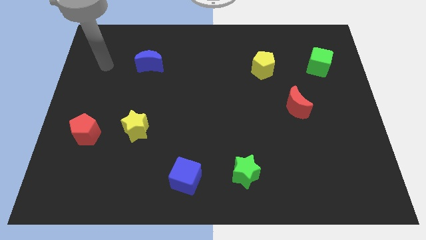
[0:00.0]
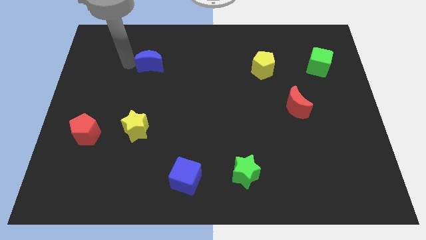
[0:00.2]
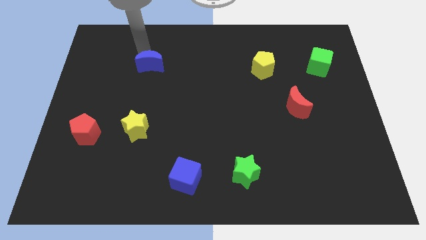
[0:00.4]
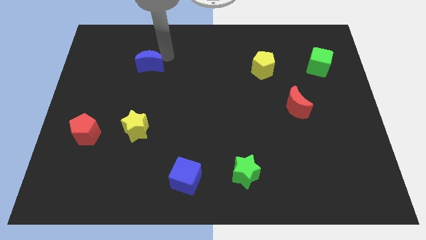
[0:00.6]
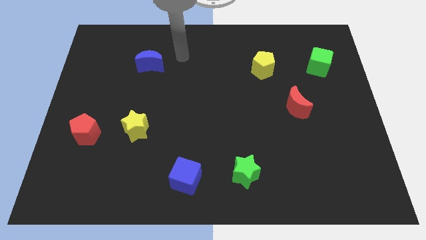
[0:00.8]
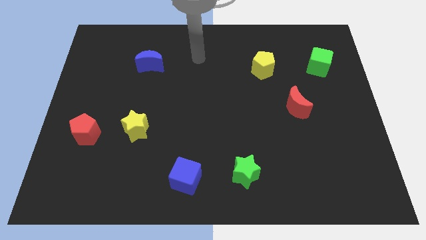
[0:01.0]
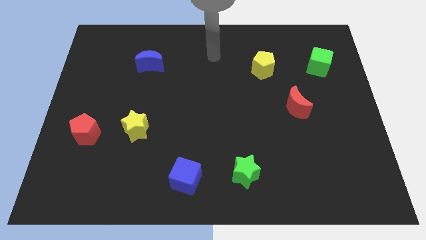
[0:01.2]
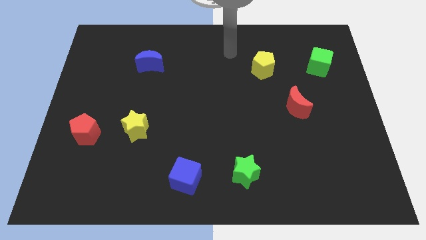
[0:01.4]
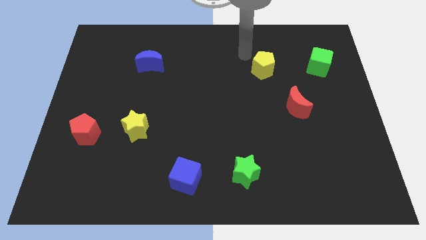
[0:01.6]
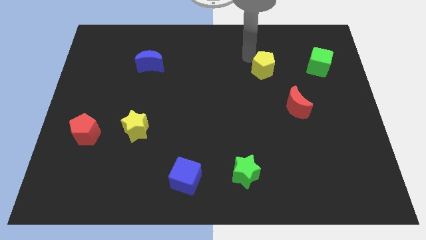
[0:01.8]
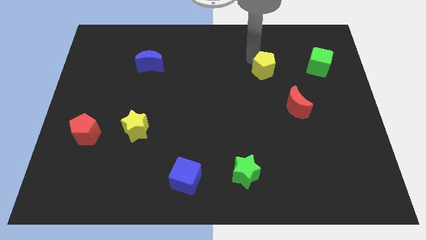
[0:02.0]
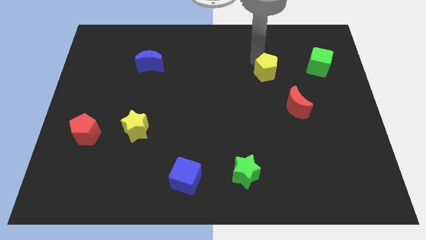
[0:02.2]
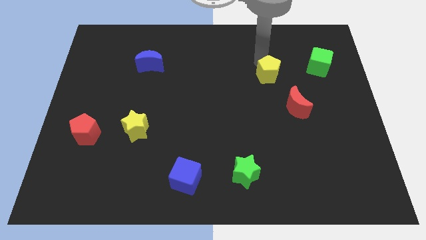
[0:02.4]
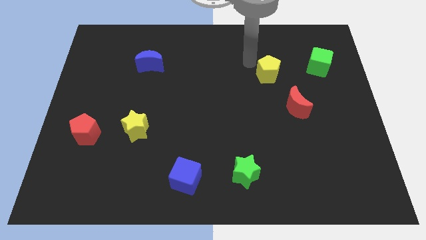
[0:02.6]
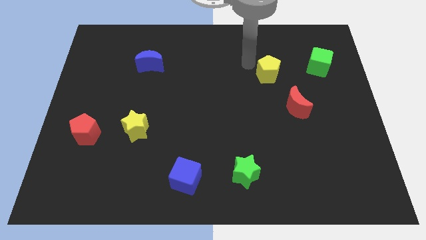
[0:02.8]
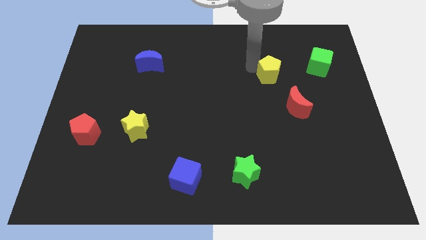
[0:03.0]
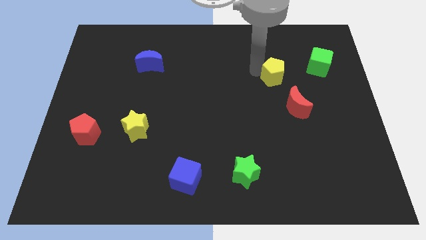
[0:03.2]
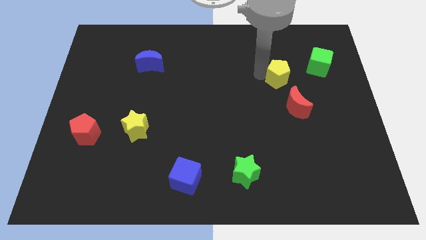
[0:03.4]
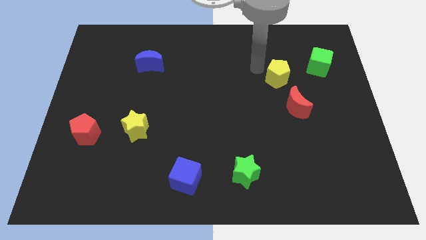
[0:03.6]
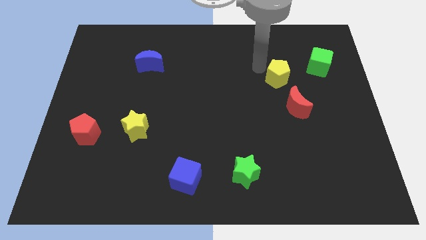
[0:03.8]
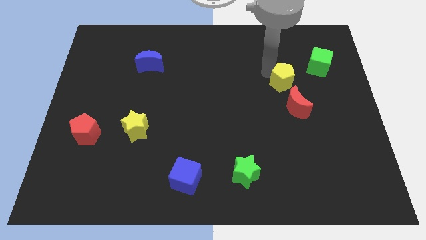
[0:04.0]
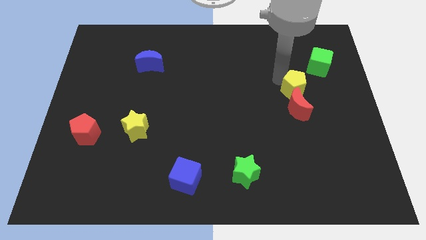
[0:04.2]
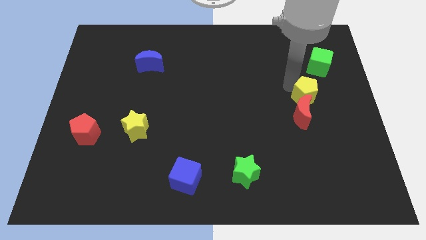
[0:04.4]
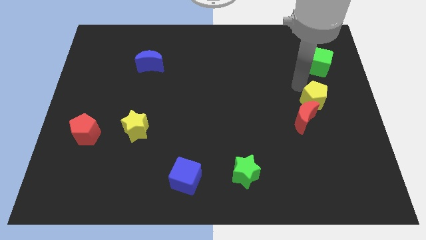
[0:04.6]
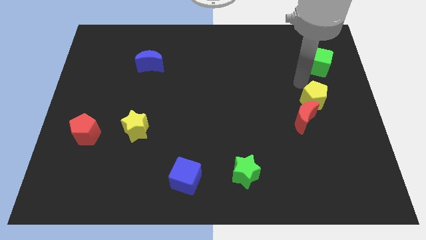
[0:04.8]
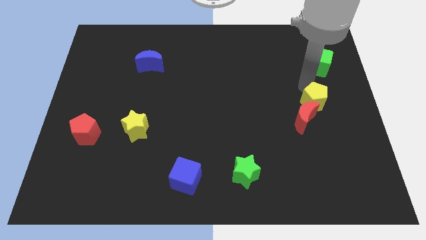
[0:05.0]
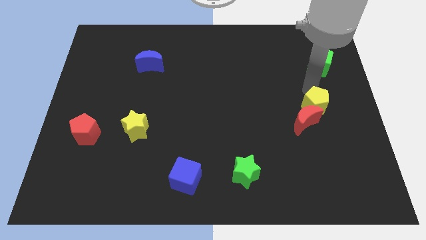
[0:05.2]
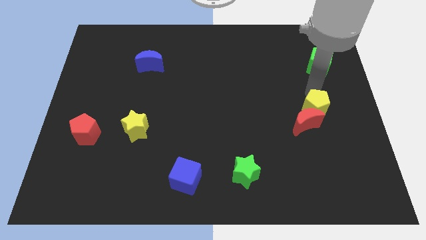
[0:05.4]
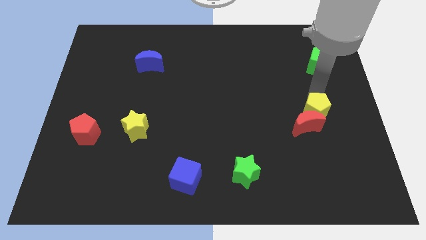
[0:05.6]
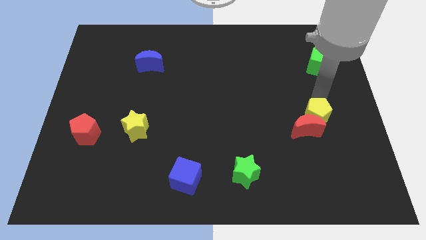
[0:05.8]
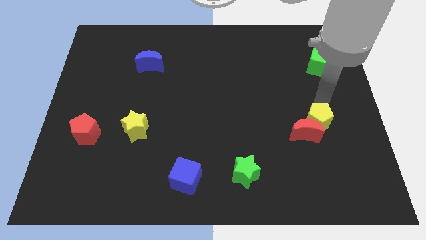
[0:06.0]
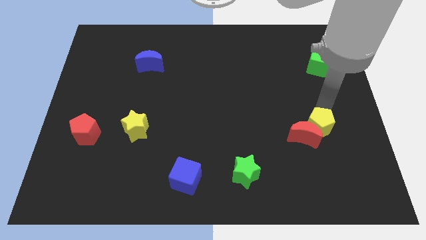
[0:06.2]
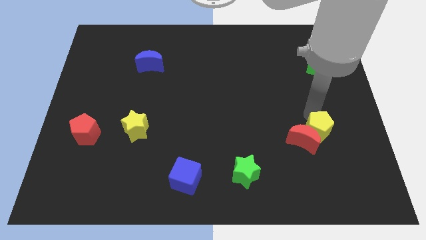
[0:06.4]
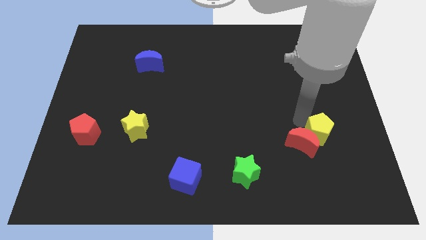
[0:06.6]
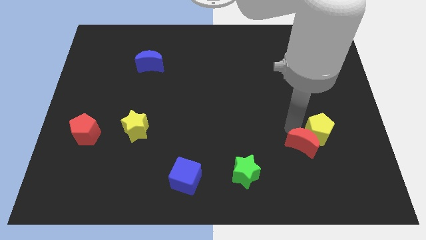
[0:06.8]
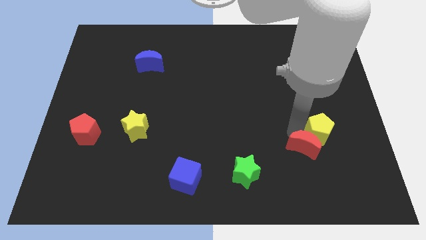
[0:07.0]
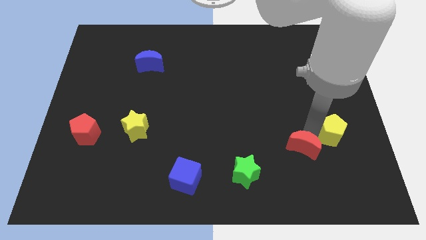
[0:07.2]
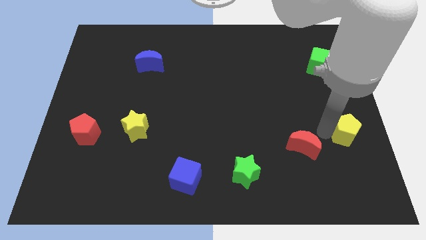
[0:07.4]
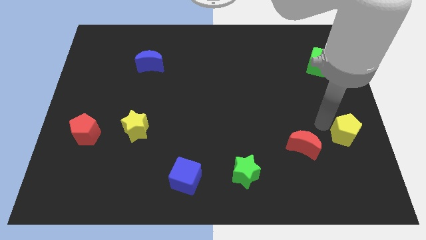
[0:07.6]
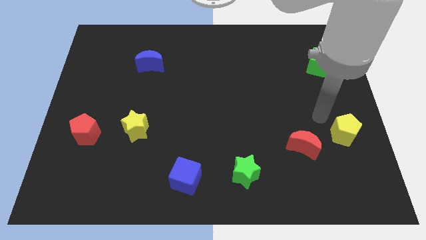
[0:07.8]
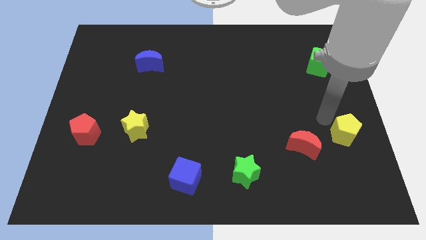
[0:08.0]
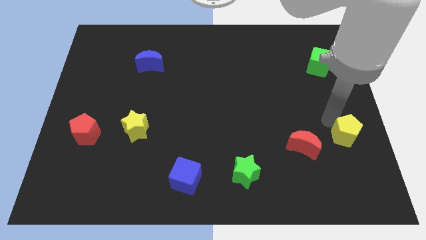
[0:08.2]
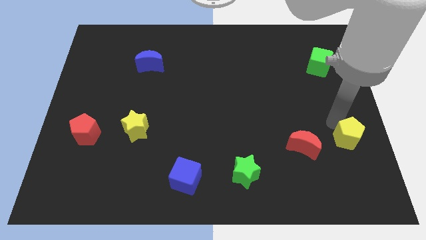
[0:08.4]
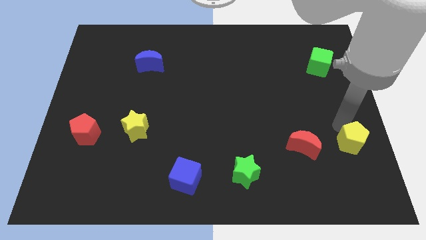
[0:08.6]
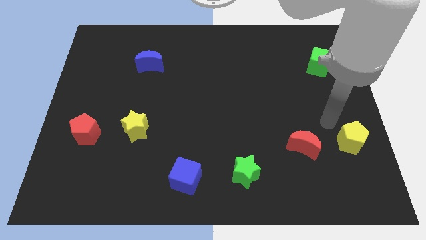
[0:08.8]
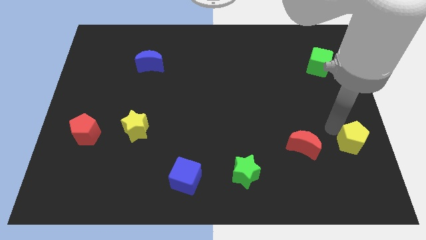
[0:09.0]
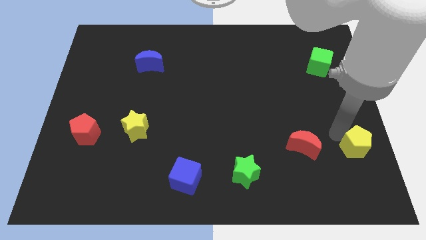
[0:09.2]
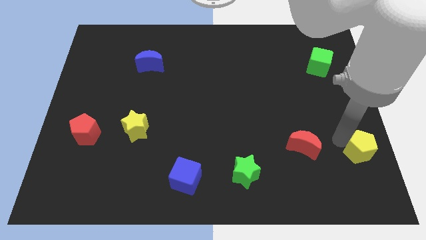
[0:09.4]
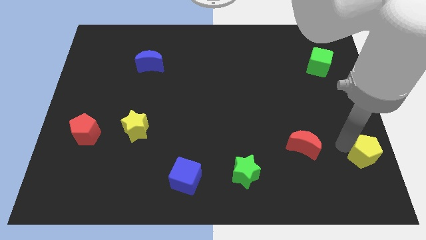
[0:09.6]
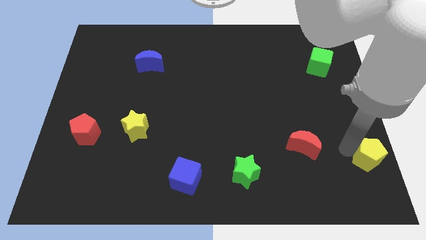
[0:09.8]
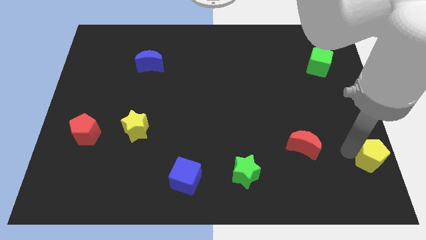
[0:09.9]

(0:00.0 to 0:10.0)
slide the yellow pentagon to the bottom right of the board

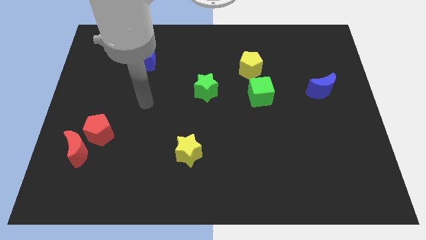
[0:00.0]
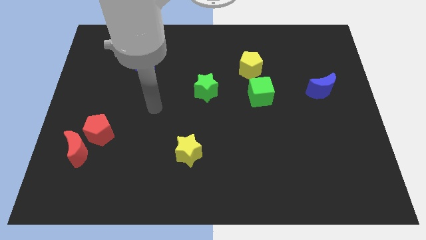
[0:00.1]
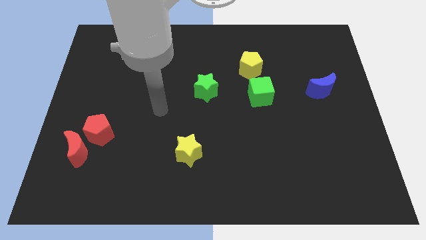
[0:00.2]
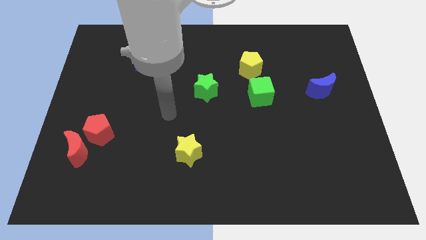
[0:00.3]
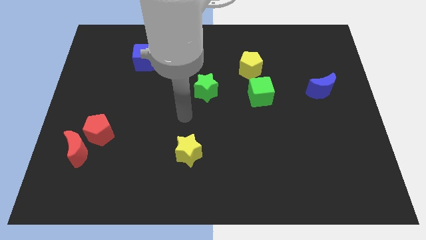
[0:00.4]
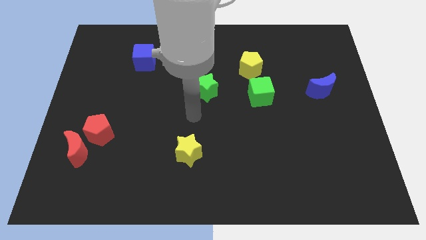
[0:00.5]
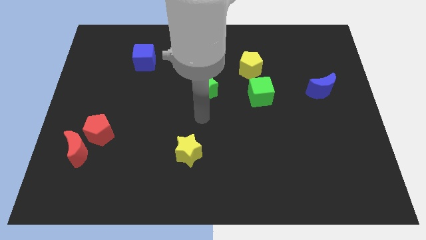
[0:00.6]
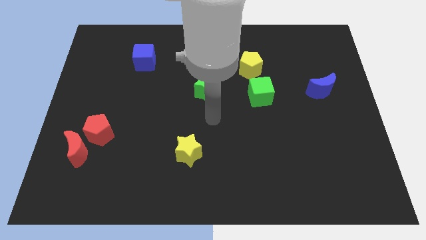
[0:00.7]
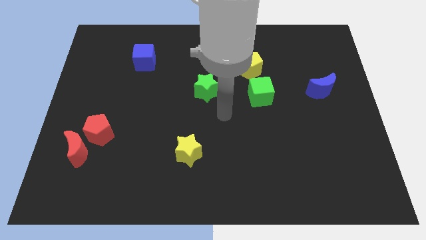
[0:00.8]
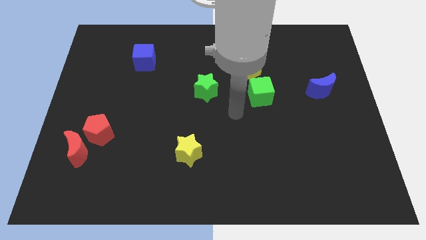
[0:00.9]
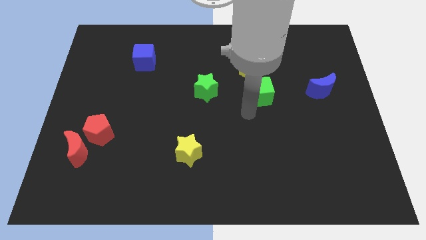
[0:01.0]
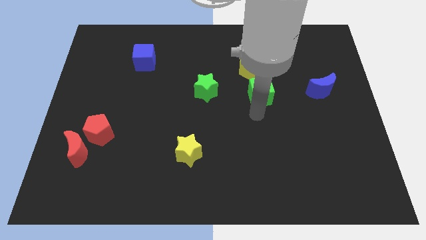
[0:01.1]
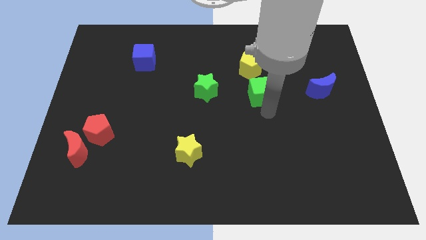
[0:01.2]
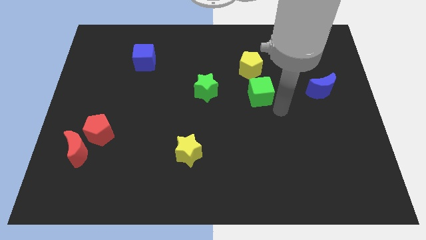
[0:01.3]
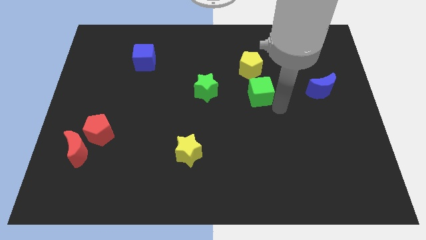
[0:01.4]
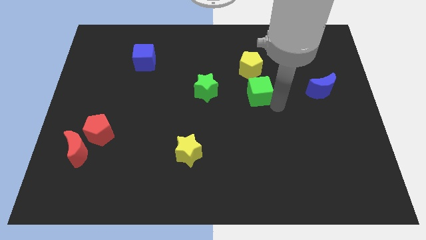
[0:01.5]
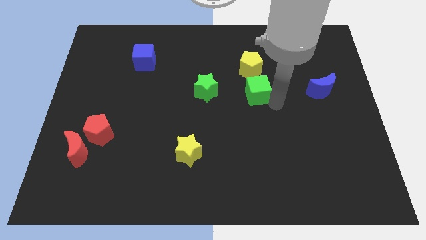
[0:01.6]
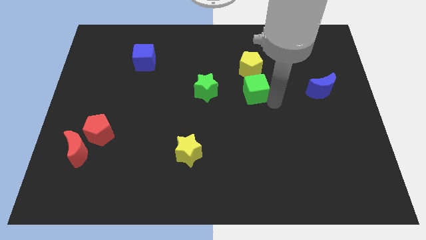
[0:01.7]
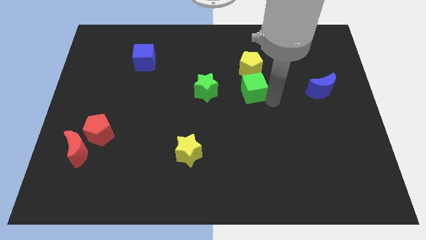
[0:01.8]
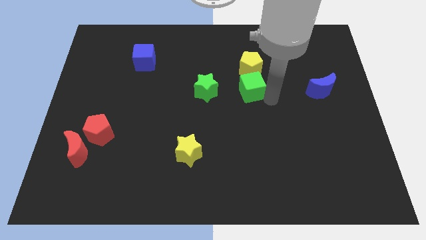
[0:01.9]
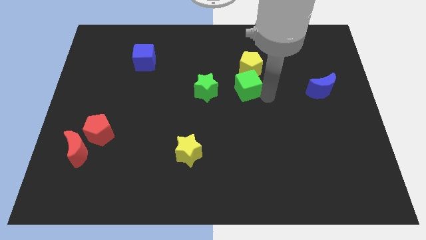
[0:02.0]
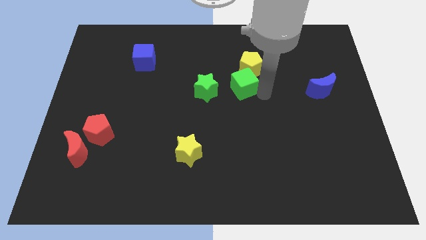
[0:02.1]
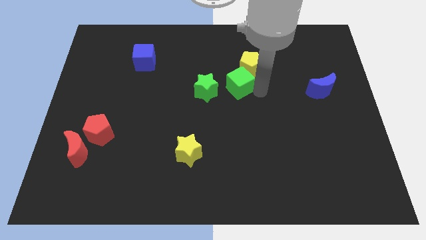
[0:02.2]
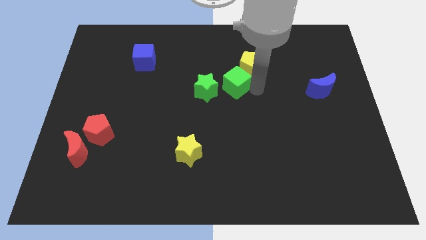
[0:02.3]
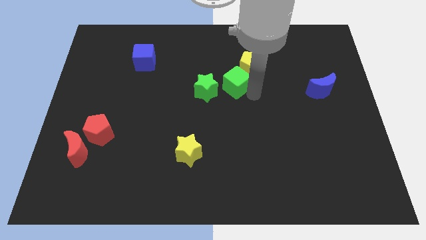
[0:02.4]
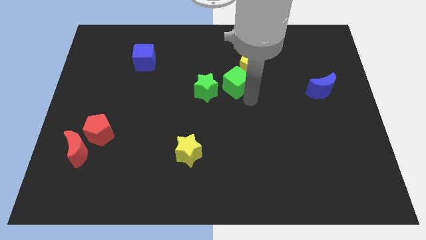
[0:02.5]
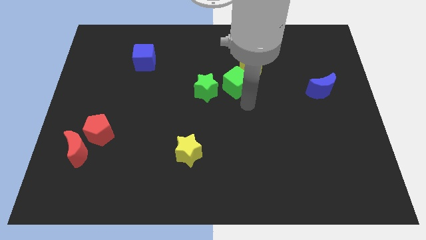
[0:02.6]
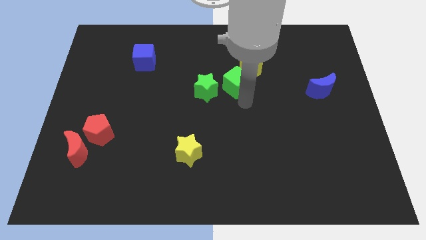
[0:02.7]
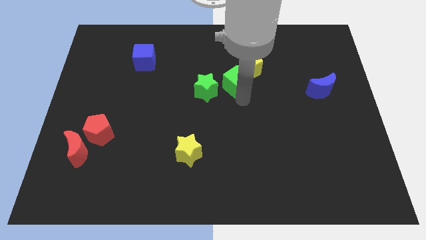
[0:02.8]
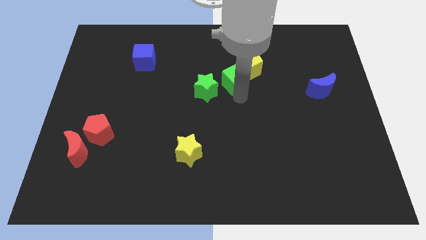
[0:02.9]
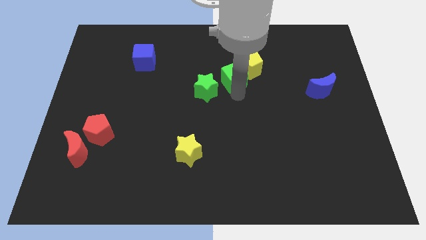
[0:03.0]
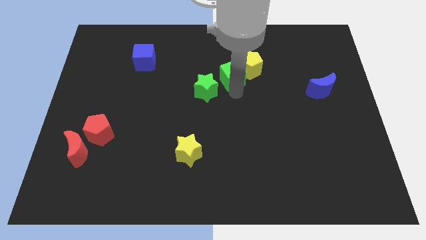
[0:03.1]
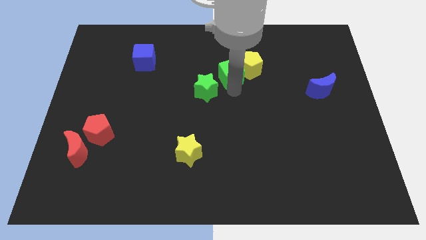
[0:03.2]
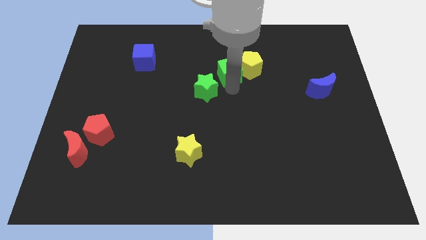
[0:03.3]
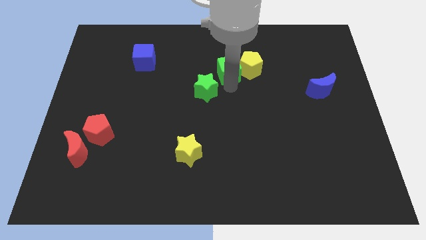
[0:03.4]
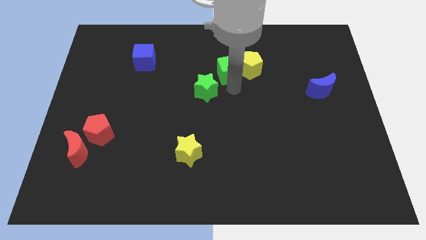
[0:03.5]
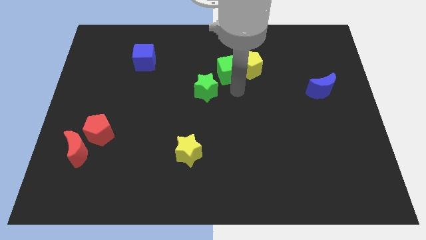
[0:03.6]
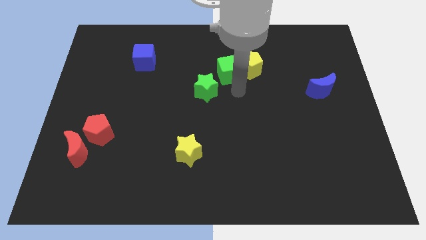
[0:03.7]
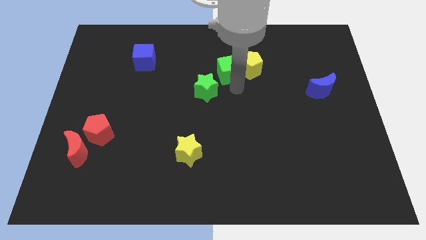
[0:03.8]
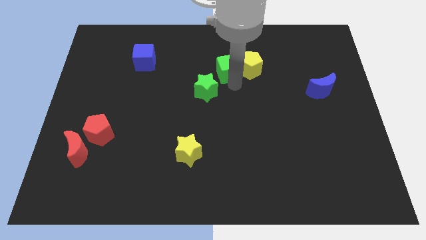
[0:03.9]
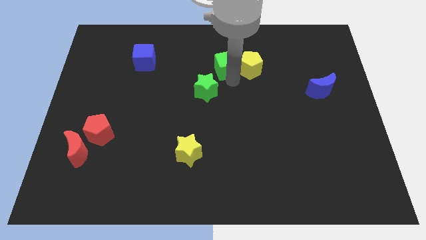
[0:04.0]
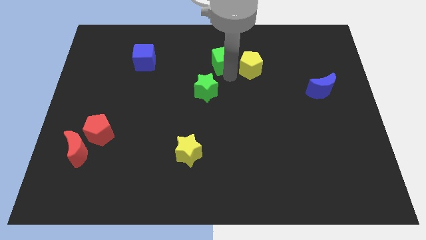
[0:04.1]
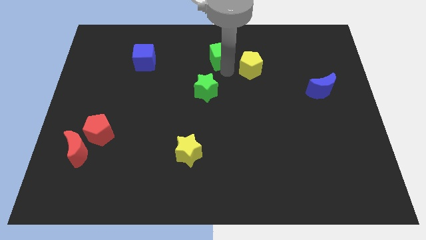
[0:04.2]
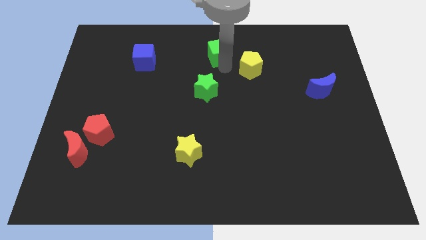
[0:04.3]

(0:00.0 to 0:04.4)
slide the green cube to the top
